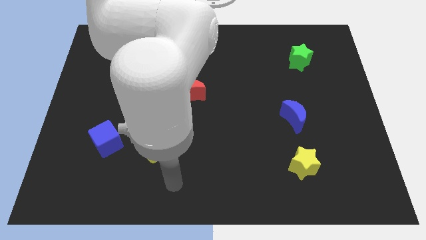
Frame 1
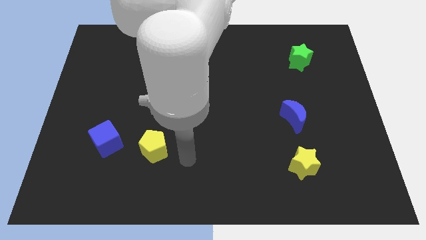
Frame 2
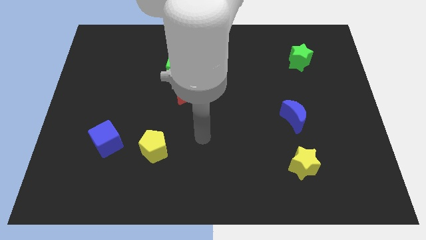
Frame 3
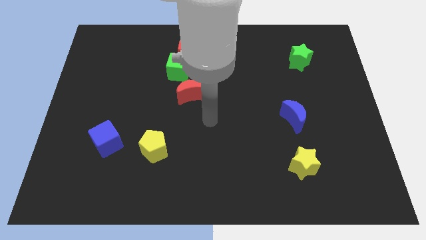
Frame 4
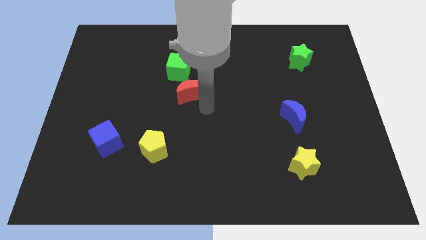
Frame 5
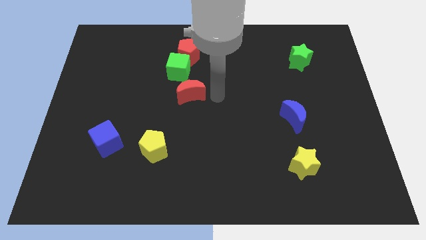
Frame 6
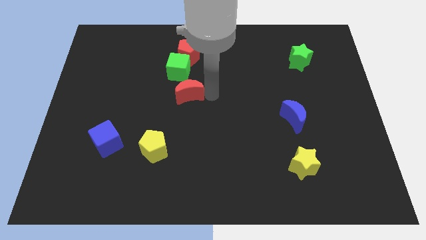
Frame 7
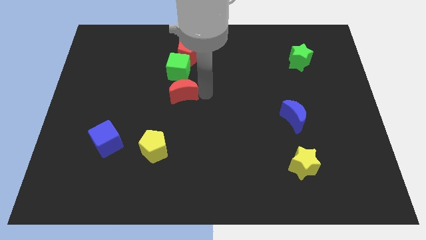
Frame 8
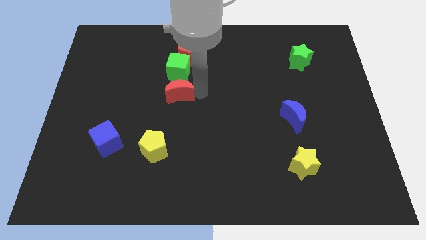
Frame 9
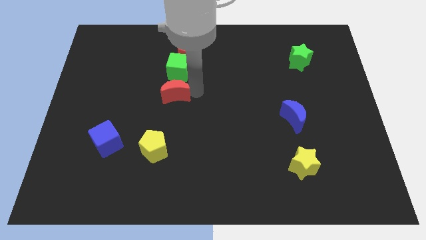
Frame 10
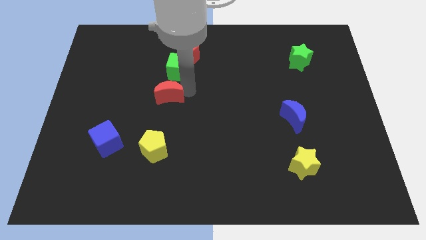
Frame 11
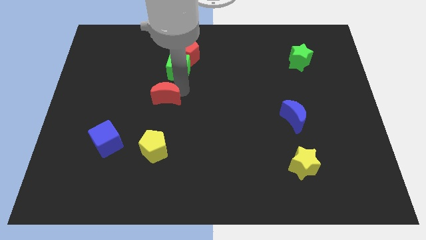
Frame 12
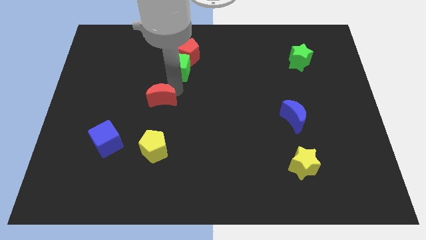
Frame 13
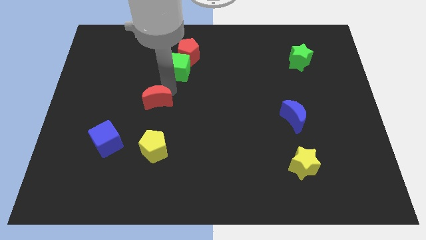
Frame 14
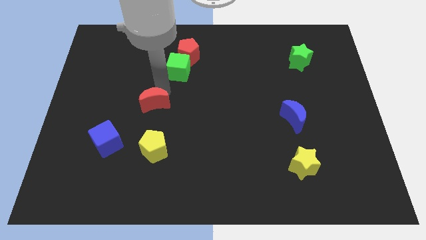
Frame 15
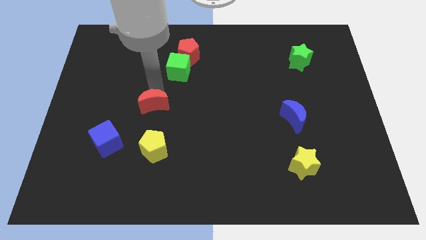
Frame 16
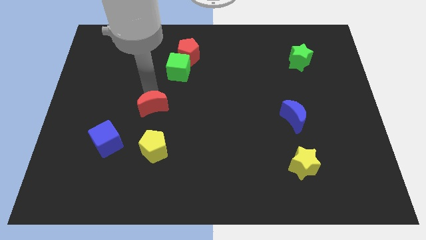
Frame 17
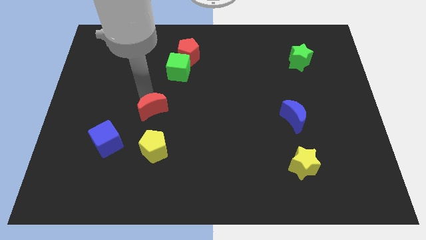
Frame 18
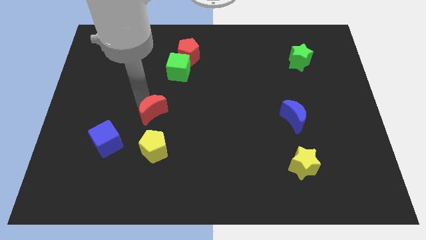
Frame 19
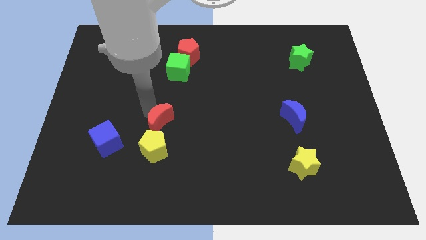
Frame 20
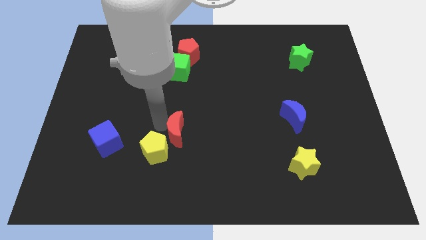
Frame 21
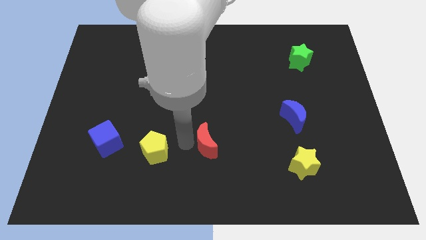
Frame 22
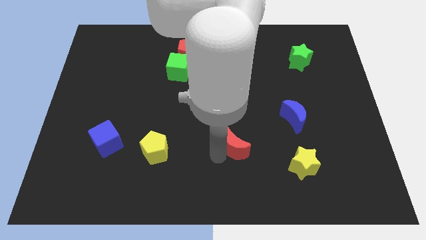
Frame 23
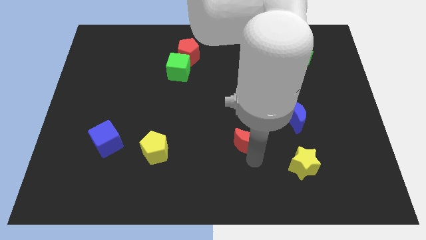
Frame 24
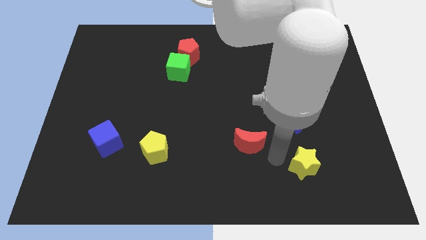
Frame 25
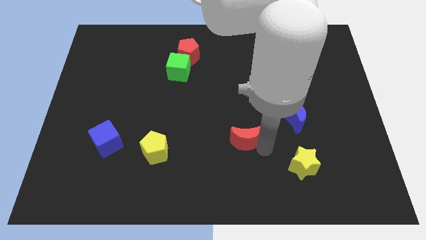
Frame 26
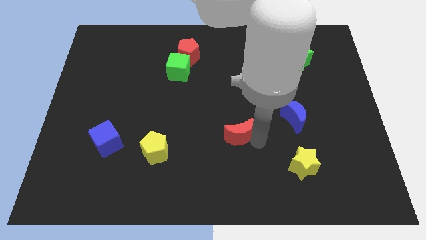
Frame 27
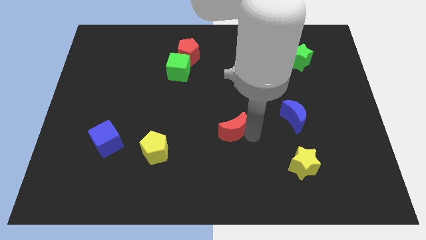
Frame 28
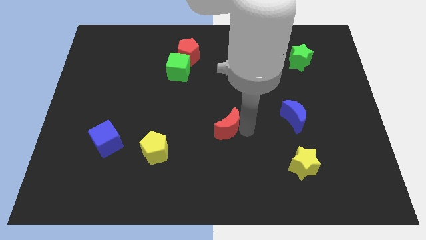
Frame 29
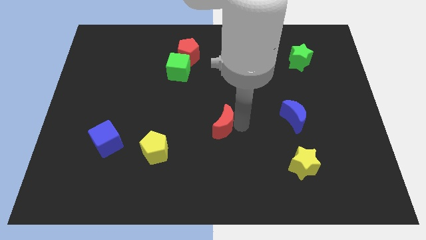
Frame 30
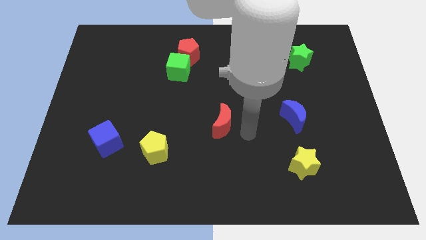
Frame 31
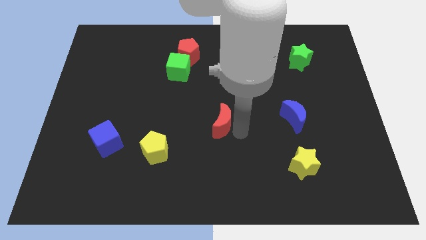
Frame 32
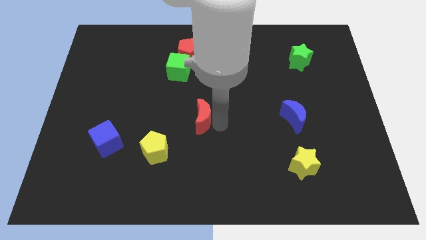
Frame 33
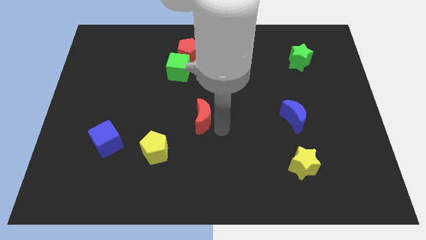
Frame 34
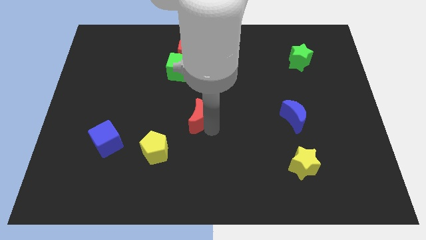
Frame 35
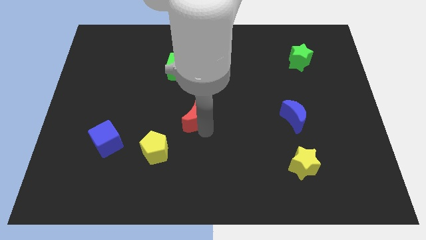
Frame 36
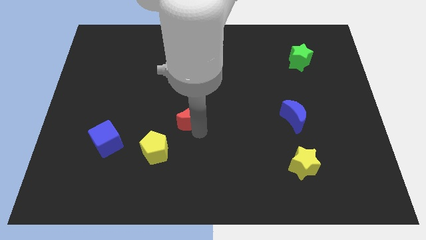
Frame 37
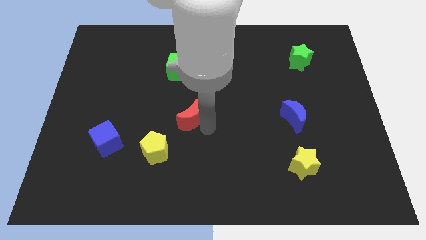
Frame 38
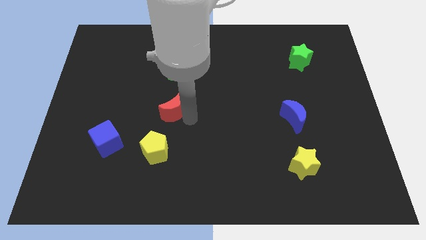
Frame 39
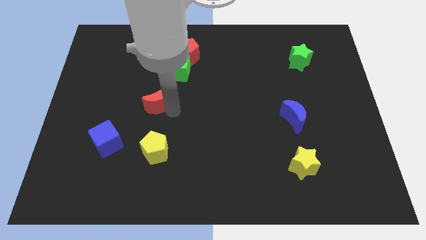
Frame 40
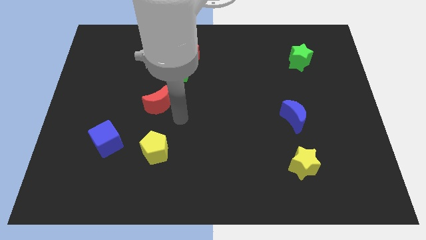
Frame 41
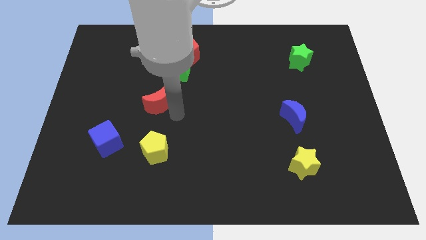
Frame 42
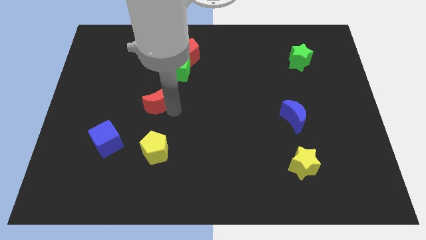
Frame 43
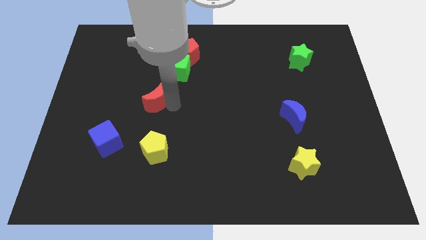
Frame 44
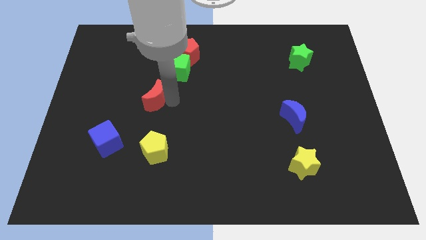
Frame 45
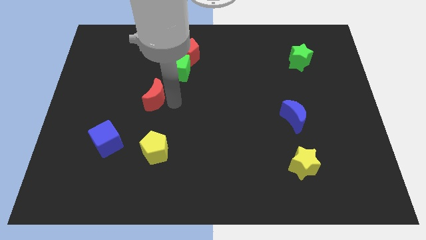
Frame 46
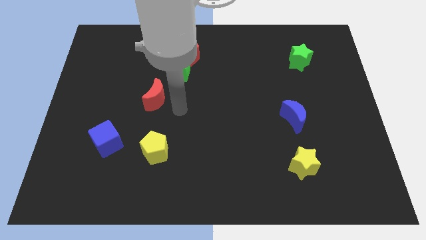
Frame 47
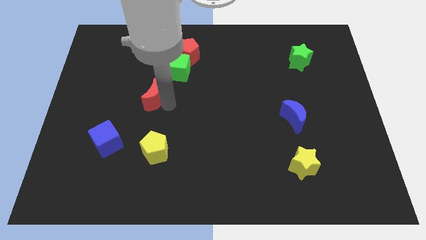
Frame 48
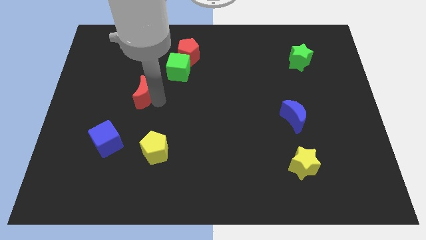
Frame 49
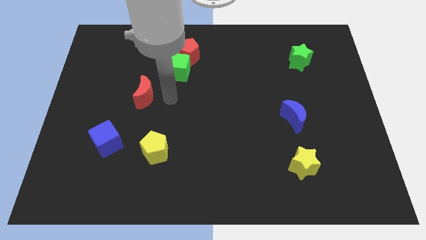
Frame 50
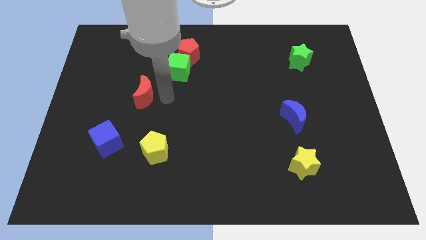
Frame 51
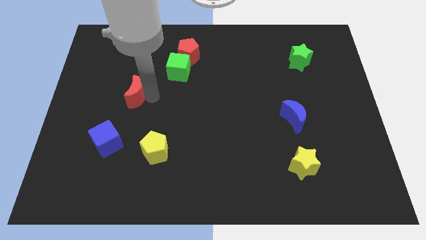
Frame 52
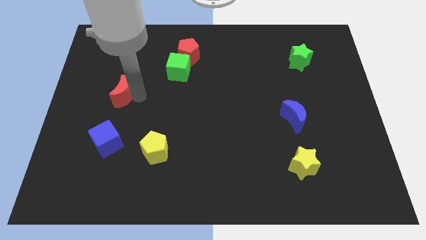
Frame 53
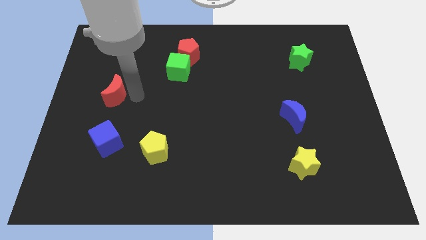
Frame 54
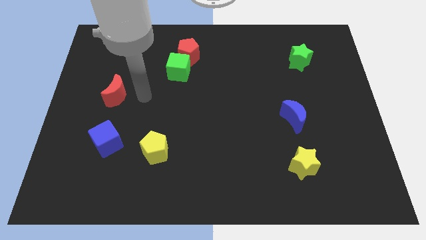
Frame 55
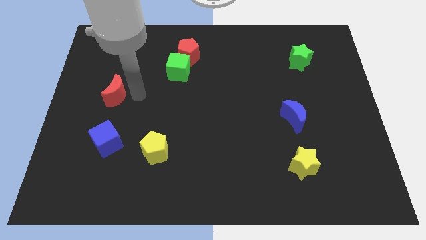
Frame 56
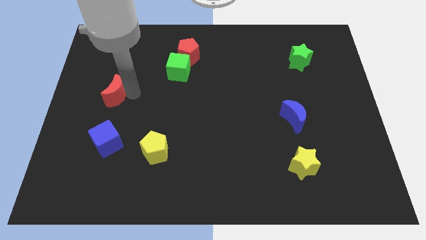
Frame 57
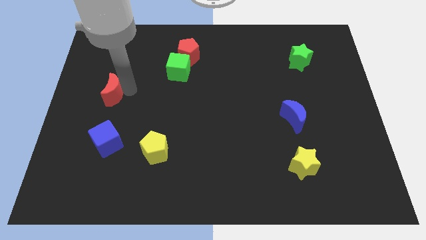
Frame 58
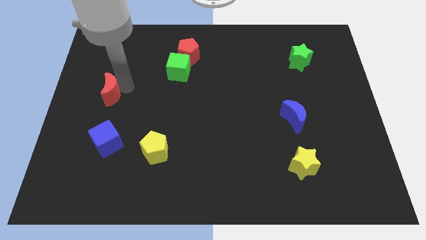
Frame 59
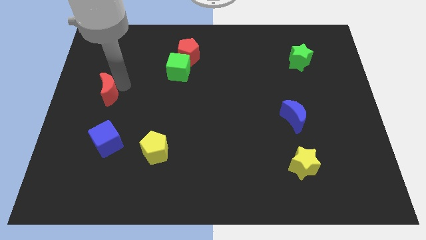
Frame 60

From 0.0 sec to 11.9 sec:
push the red moon to the center left
